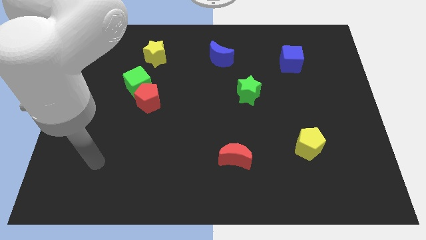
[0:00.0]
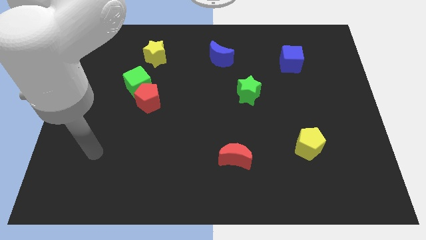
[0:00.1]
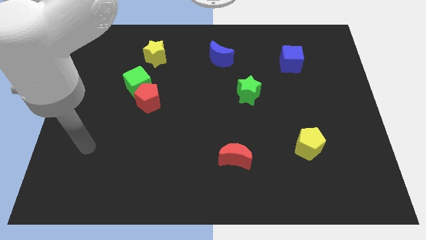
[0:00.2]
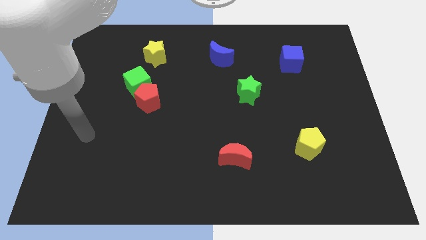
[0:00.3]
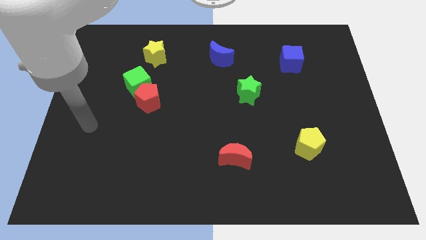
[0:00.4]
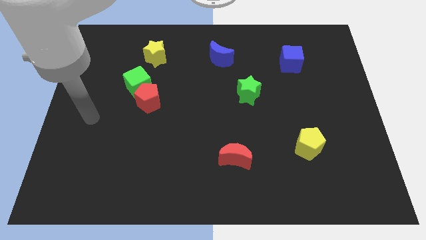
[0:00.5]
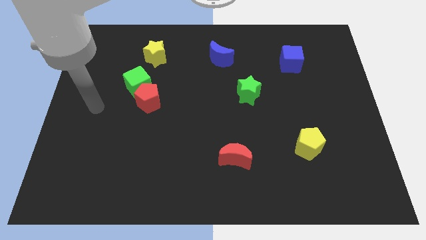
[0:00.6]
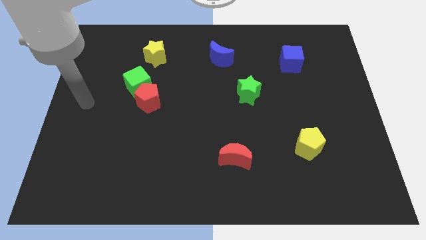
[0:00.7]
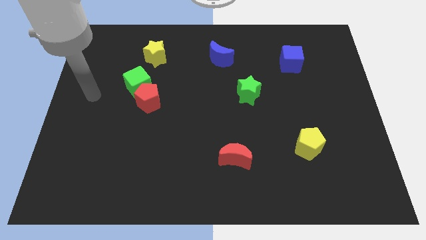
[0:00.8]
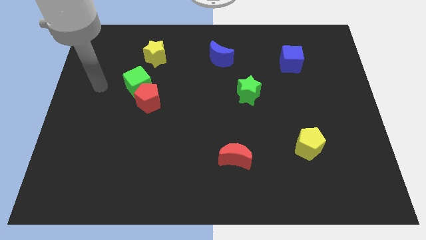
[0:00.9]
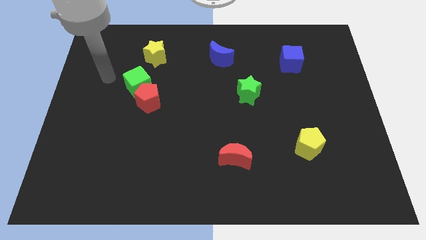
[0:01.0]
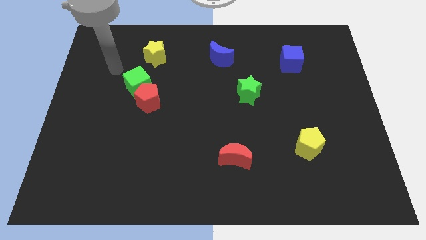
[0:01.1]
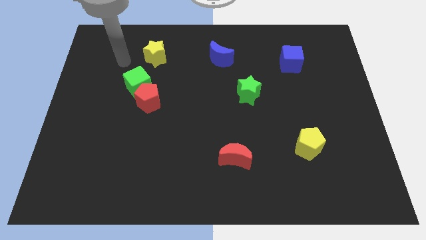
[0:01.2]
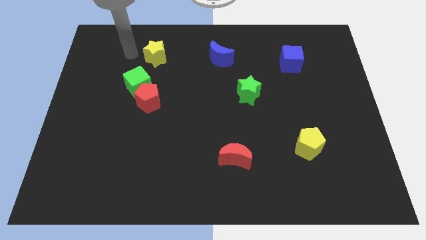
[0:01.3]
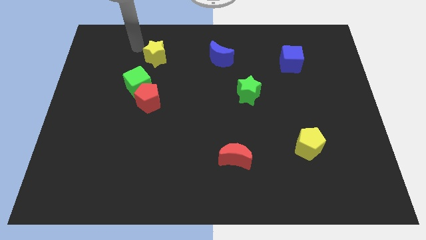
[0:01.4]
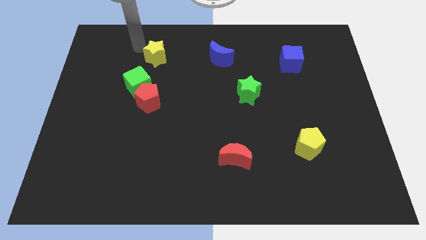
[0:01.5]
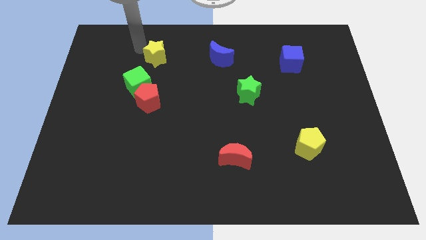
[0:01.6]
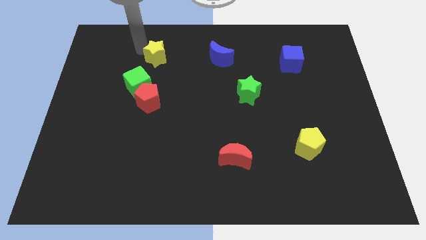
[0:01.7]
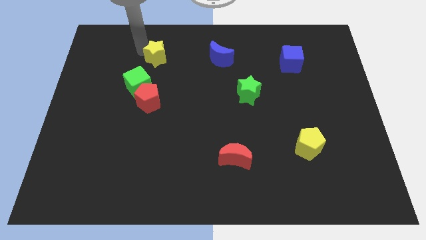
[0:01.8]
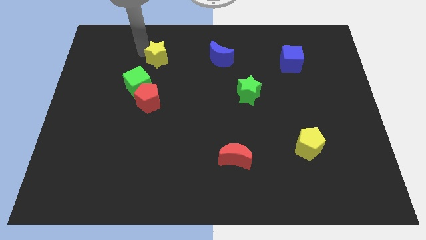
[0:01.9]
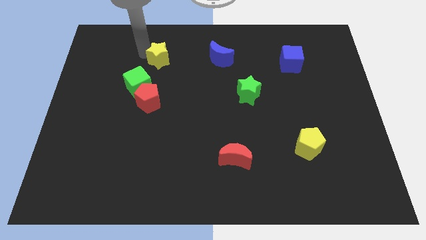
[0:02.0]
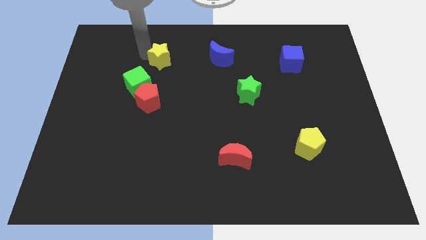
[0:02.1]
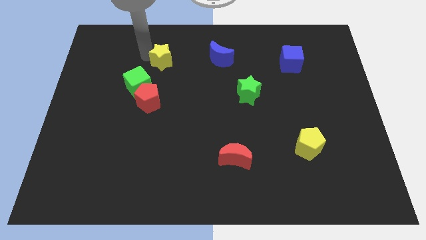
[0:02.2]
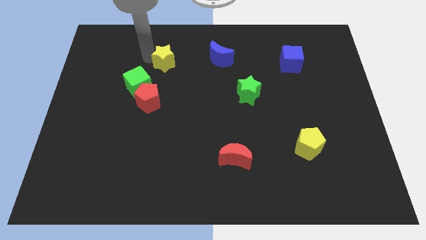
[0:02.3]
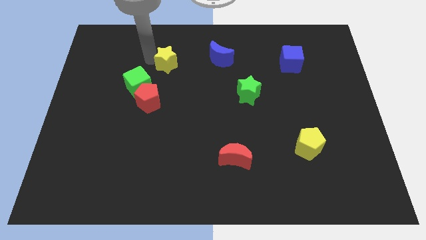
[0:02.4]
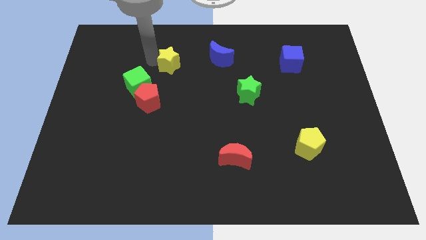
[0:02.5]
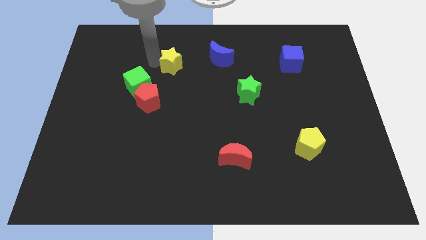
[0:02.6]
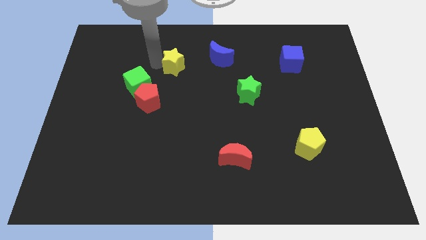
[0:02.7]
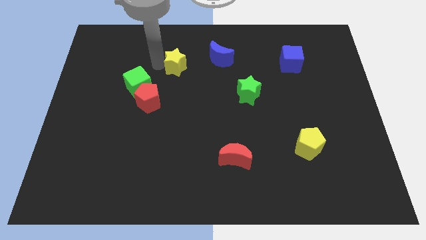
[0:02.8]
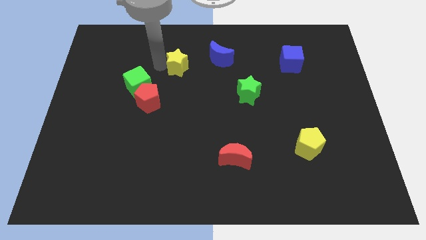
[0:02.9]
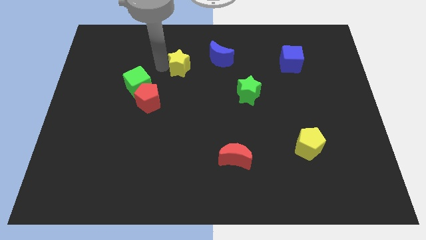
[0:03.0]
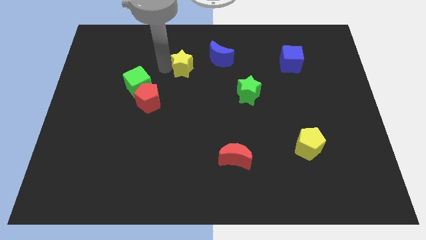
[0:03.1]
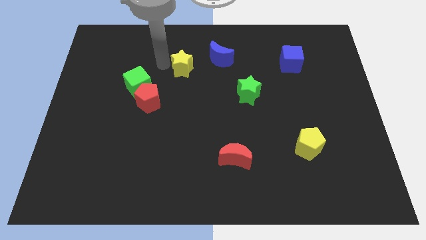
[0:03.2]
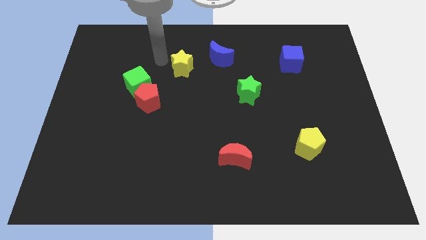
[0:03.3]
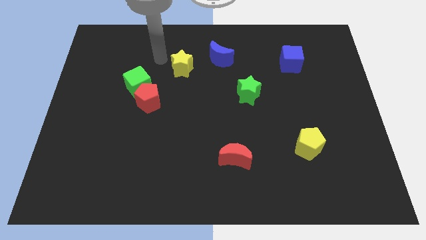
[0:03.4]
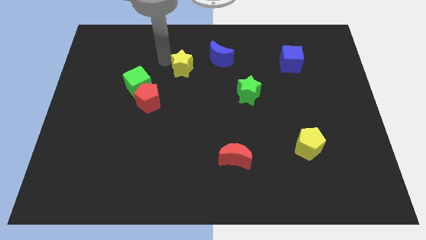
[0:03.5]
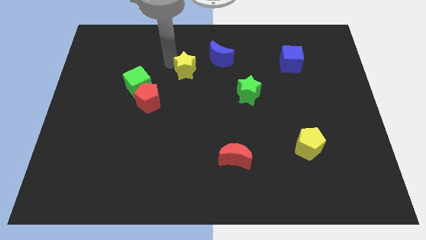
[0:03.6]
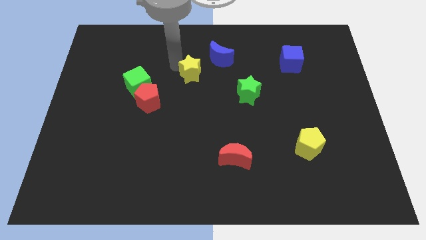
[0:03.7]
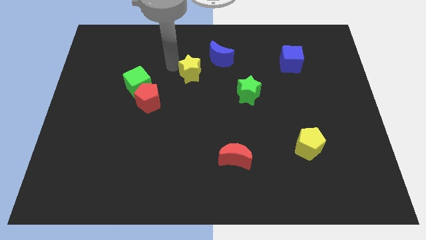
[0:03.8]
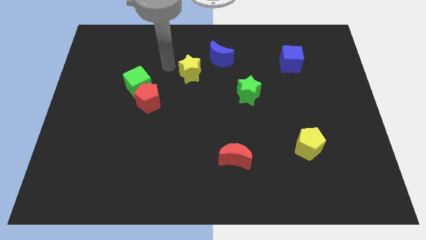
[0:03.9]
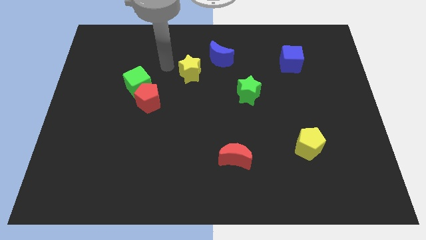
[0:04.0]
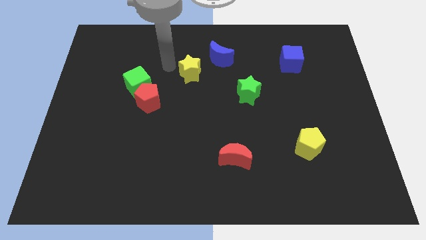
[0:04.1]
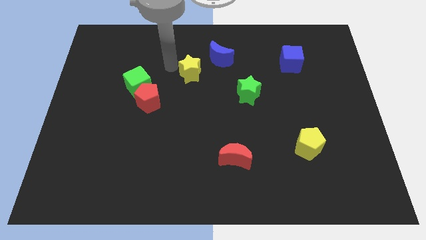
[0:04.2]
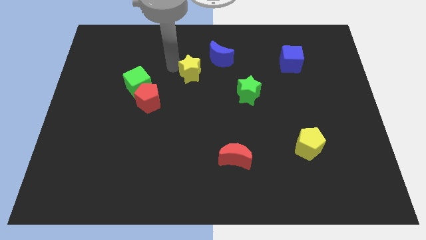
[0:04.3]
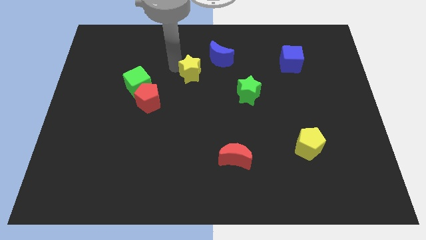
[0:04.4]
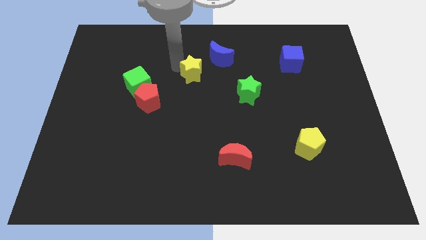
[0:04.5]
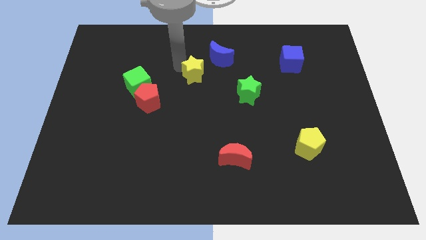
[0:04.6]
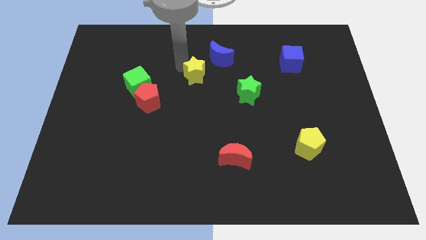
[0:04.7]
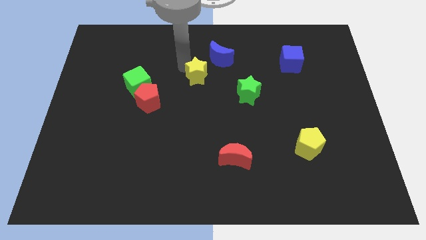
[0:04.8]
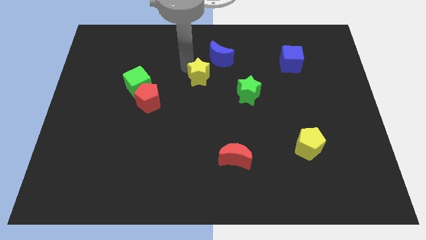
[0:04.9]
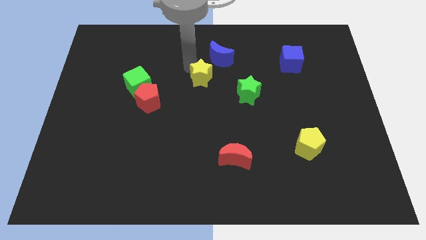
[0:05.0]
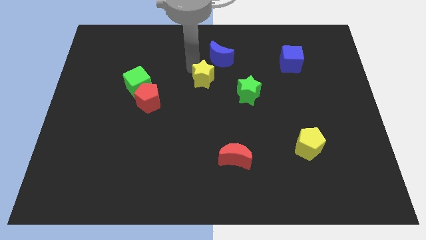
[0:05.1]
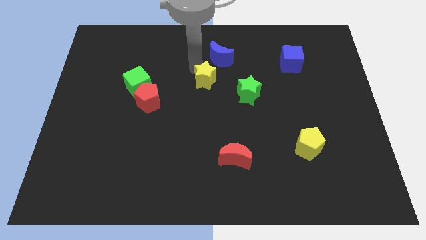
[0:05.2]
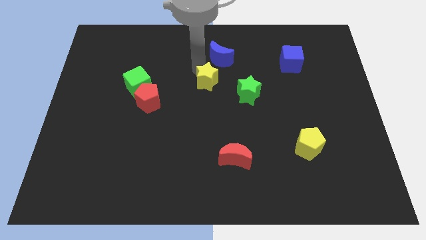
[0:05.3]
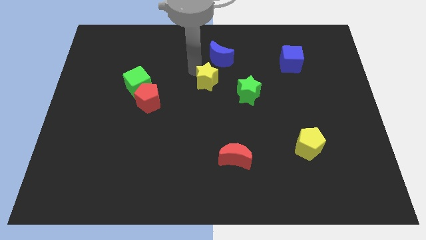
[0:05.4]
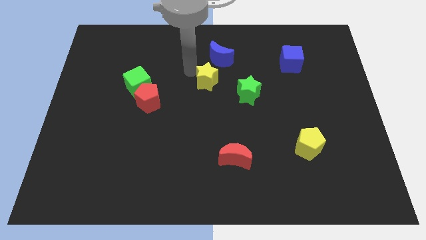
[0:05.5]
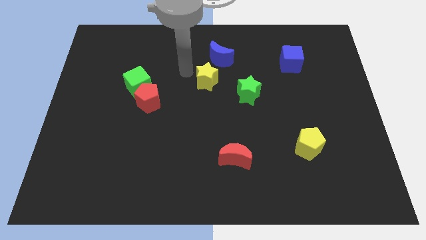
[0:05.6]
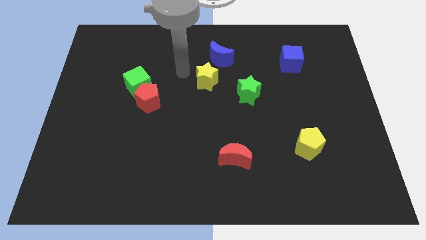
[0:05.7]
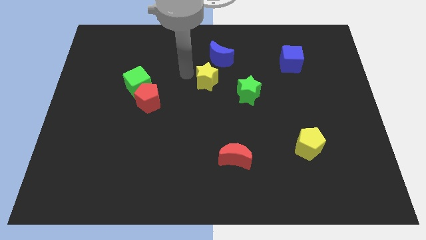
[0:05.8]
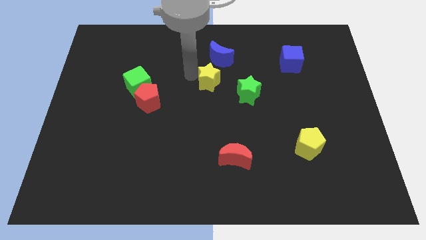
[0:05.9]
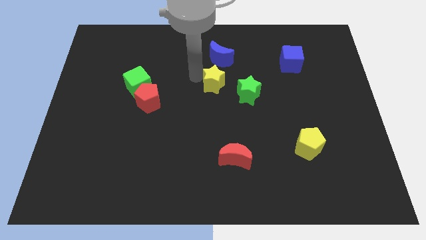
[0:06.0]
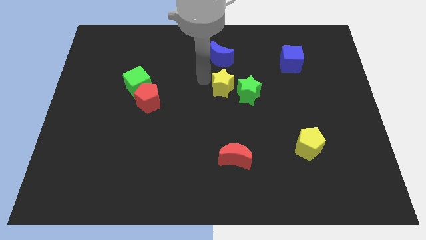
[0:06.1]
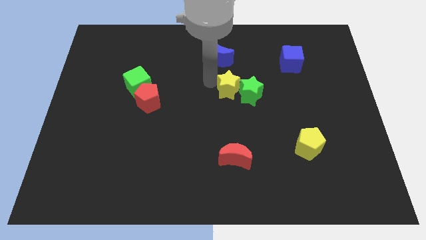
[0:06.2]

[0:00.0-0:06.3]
push the yellow star towards the green star

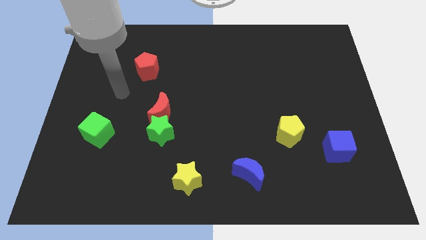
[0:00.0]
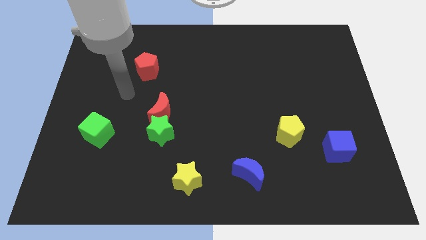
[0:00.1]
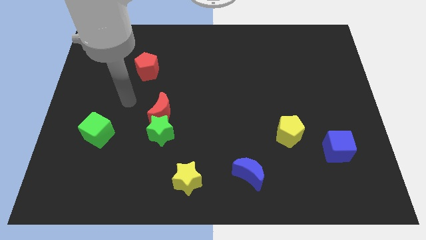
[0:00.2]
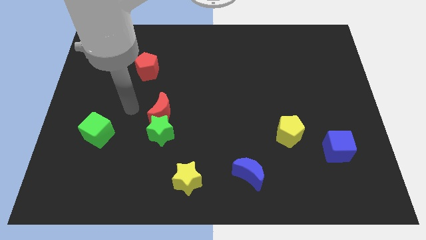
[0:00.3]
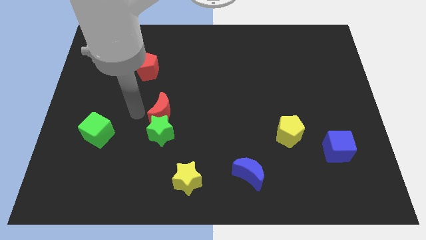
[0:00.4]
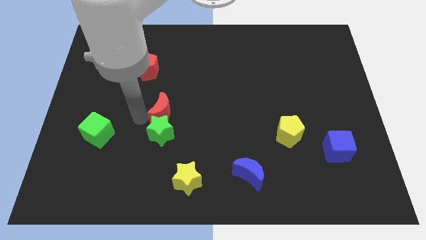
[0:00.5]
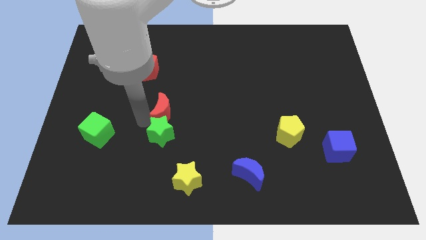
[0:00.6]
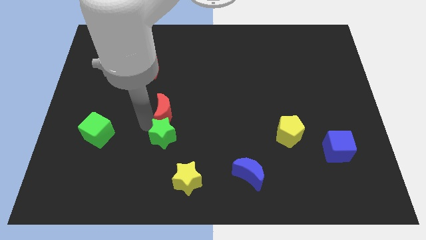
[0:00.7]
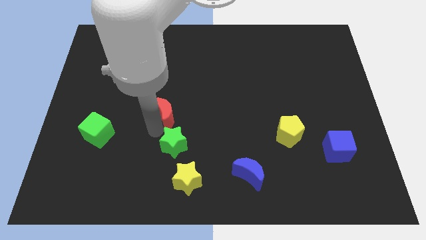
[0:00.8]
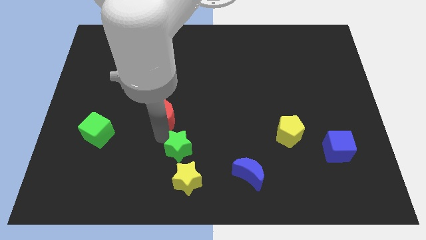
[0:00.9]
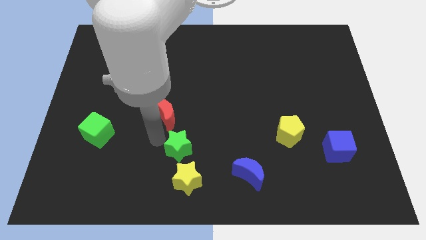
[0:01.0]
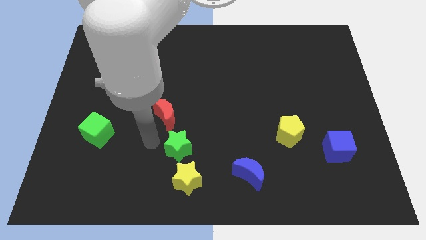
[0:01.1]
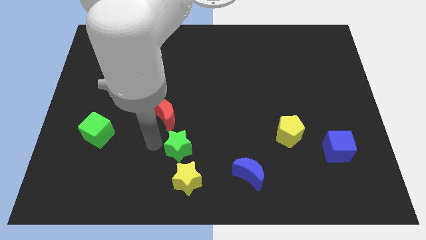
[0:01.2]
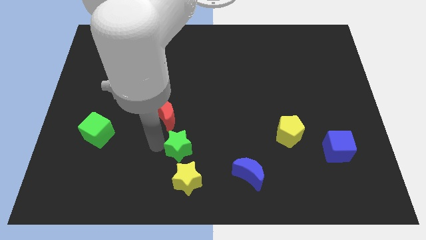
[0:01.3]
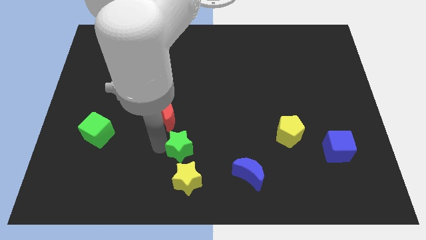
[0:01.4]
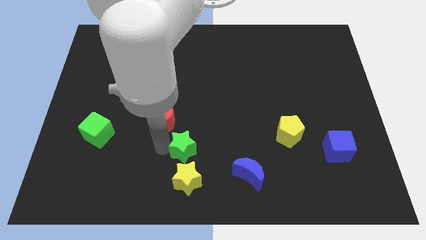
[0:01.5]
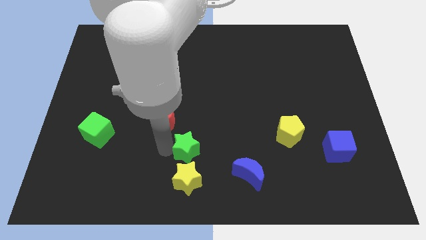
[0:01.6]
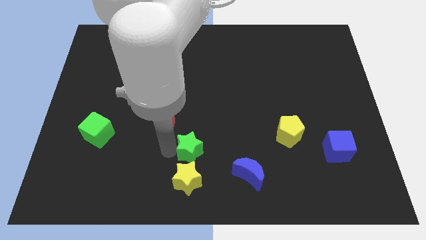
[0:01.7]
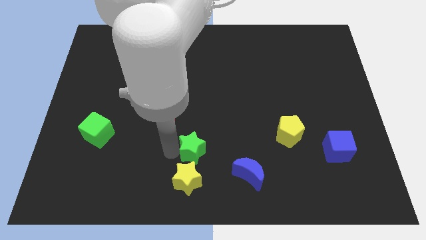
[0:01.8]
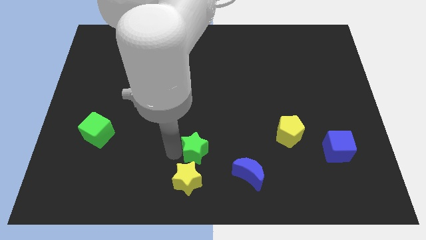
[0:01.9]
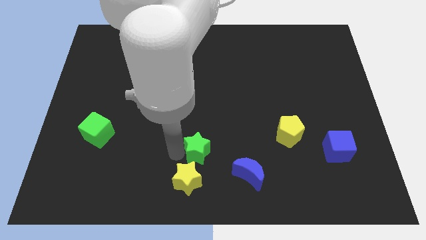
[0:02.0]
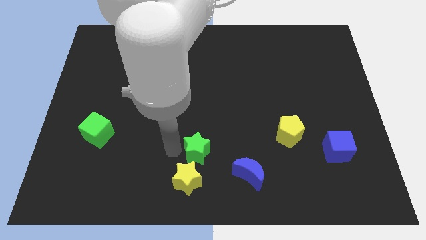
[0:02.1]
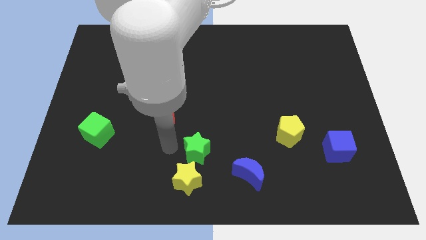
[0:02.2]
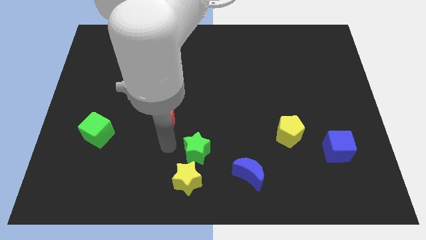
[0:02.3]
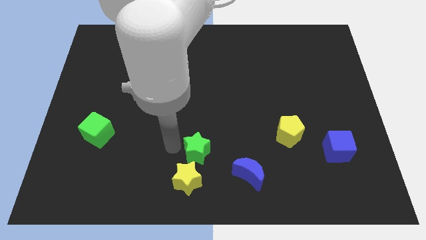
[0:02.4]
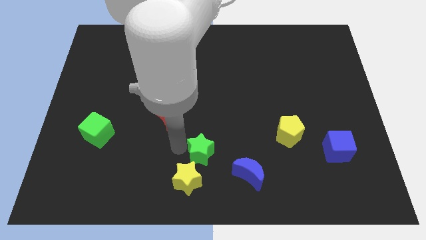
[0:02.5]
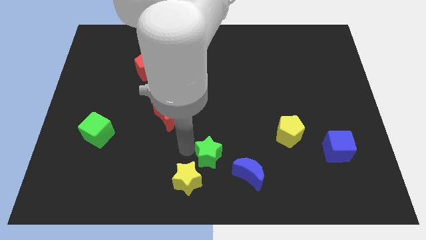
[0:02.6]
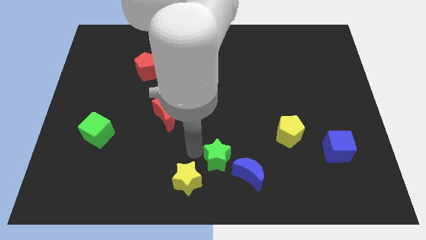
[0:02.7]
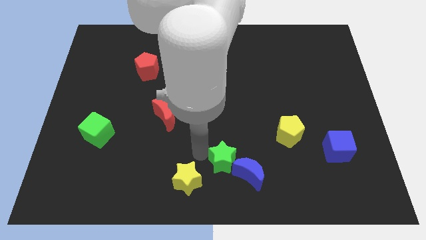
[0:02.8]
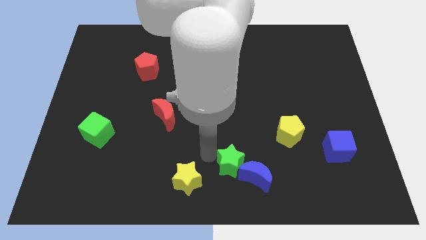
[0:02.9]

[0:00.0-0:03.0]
slide the green star towards the blue moon
